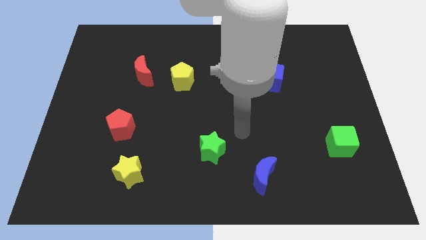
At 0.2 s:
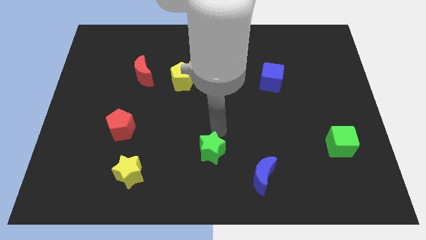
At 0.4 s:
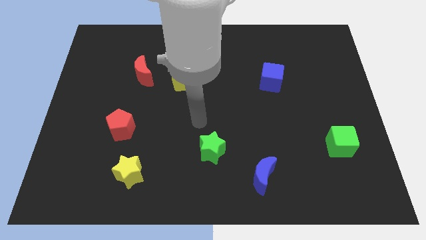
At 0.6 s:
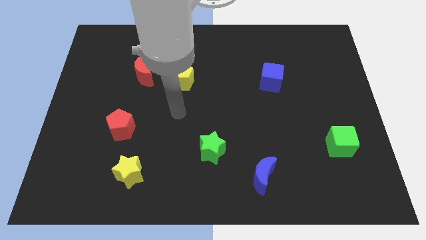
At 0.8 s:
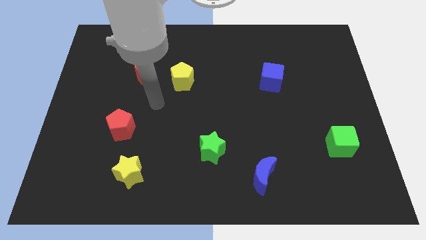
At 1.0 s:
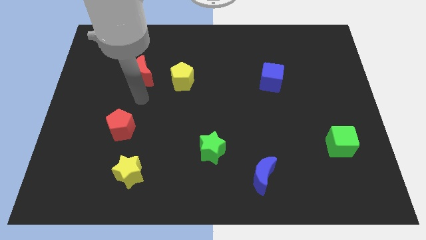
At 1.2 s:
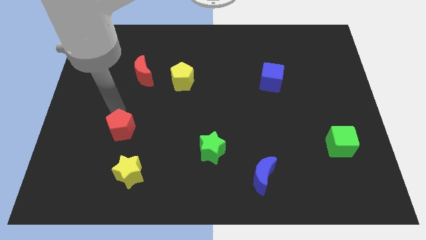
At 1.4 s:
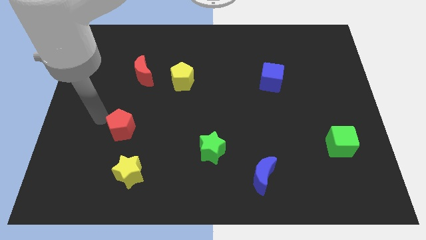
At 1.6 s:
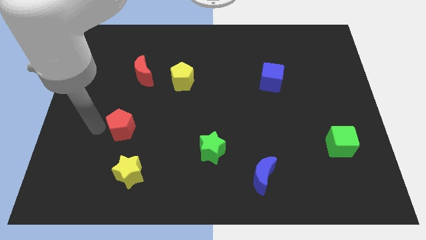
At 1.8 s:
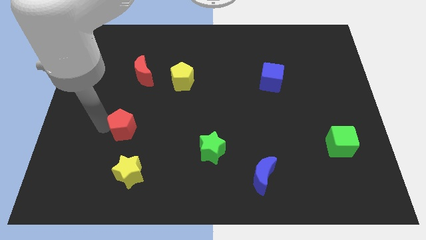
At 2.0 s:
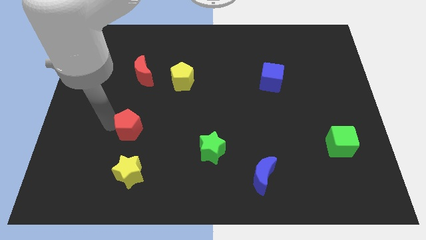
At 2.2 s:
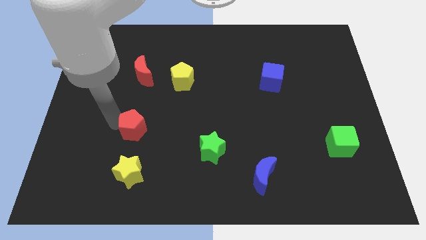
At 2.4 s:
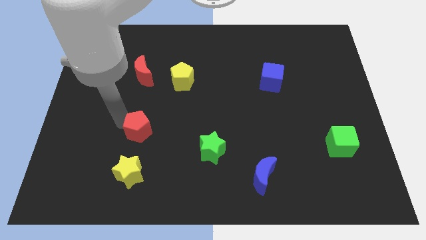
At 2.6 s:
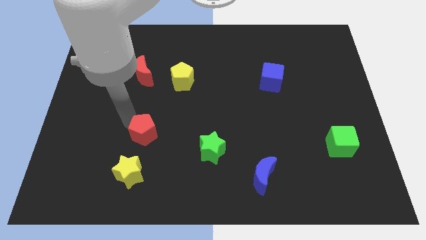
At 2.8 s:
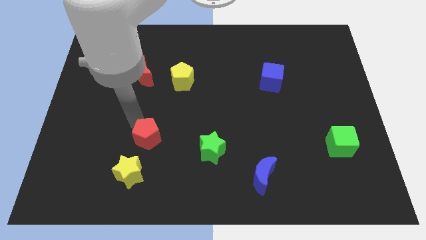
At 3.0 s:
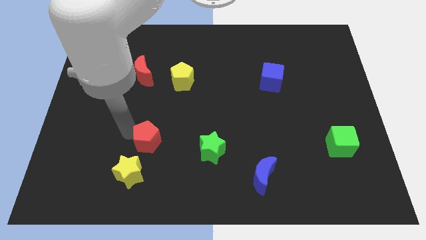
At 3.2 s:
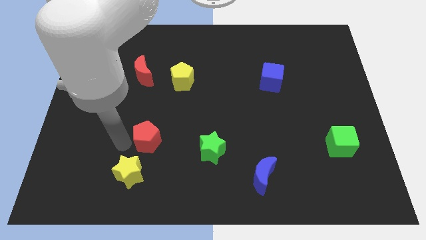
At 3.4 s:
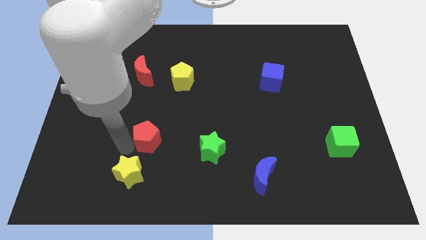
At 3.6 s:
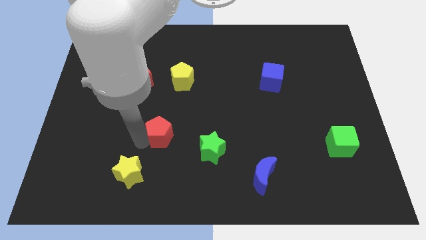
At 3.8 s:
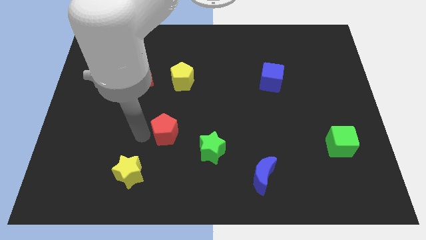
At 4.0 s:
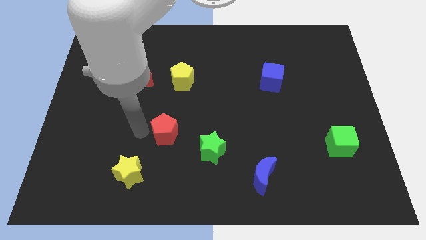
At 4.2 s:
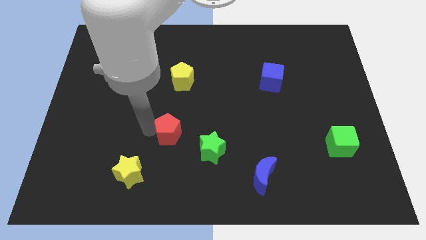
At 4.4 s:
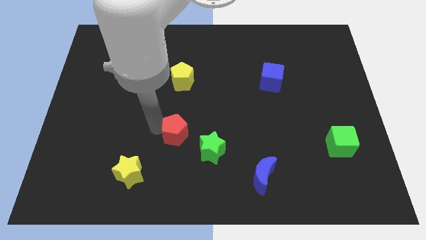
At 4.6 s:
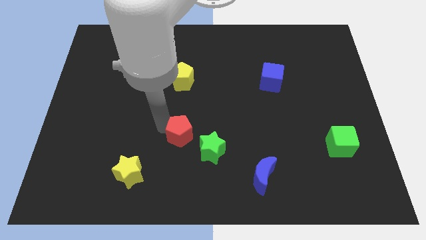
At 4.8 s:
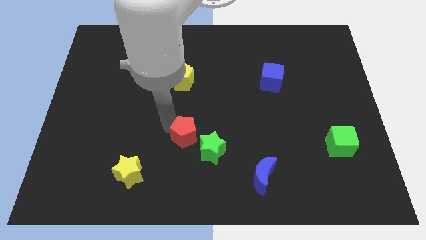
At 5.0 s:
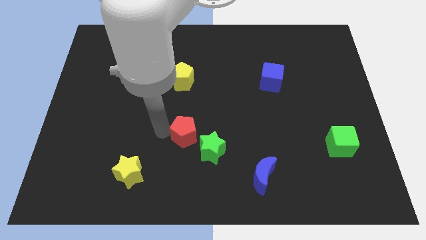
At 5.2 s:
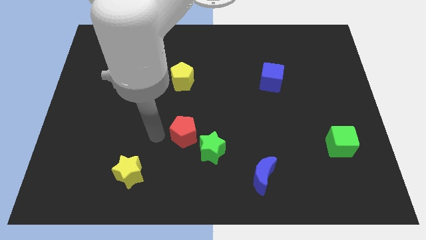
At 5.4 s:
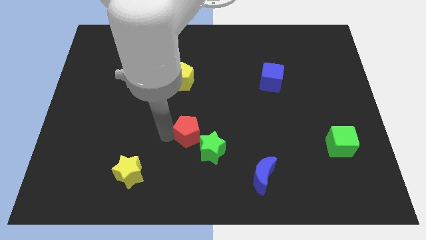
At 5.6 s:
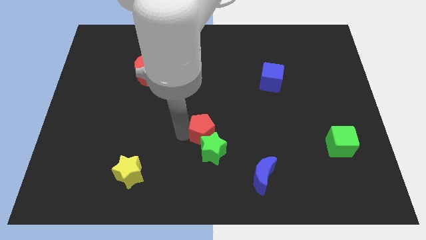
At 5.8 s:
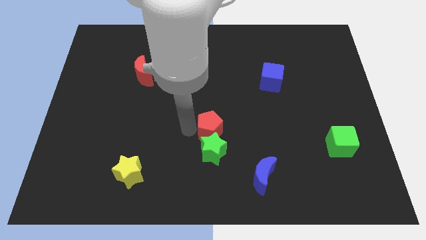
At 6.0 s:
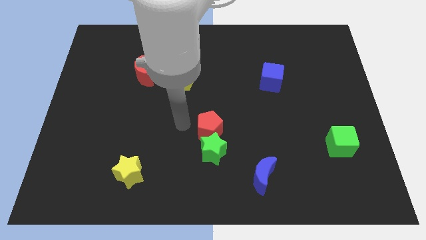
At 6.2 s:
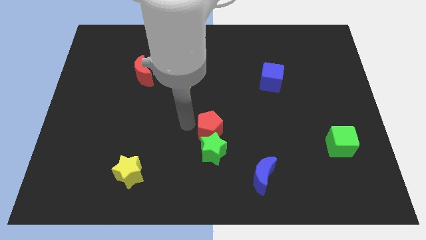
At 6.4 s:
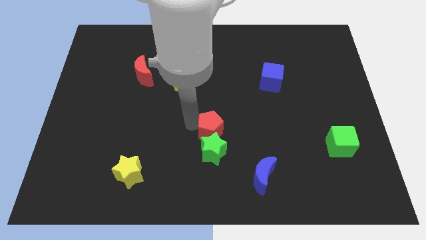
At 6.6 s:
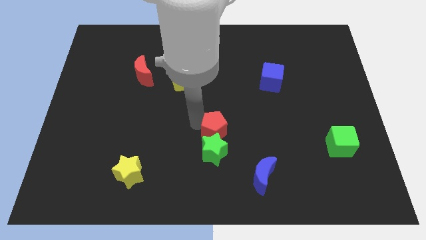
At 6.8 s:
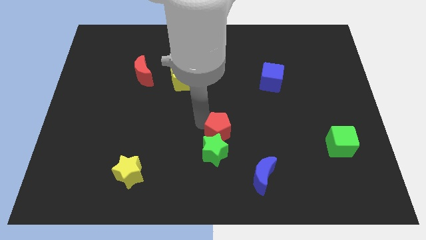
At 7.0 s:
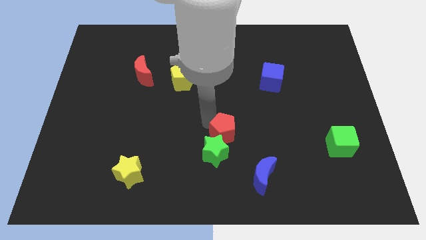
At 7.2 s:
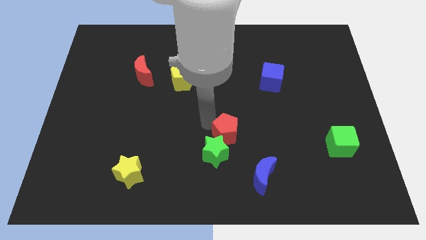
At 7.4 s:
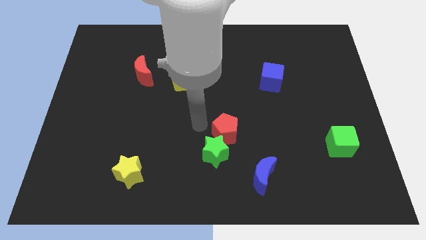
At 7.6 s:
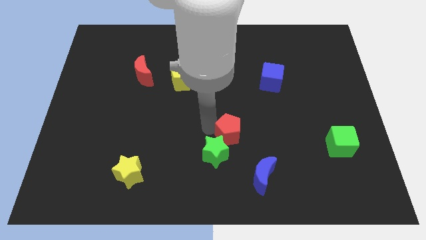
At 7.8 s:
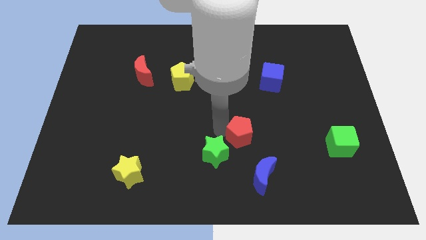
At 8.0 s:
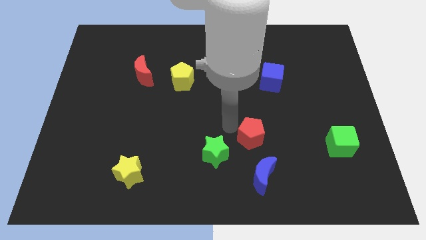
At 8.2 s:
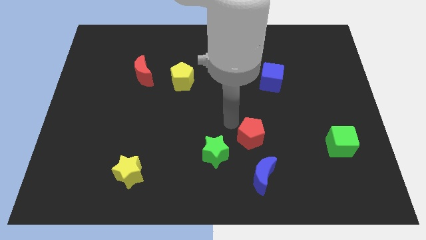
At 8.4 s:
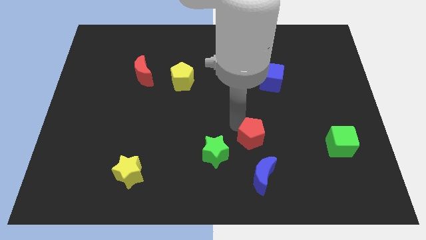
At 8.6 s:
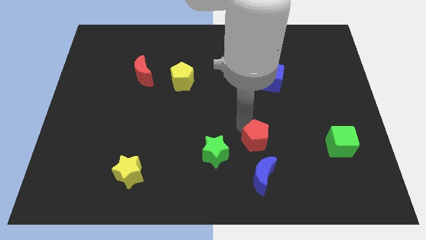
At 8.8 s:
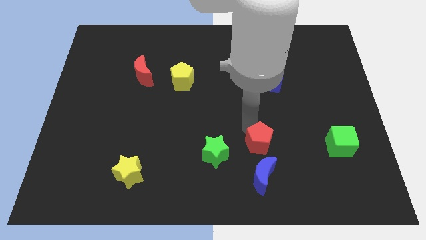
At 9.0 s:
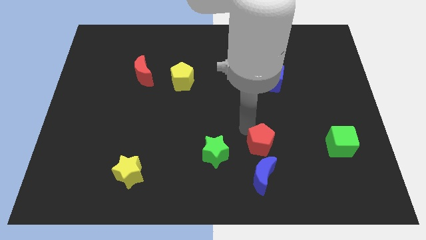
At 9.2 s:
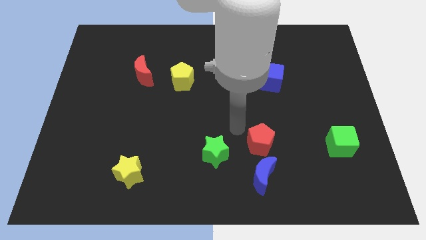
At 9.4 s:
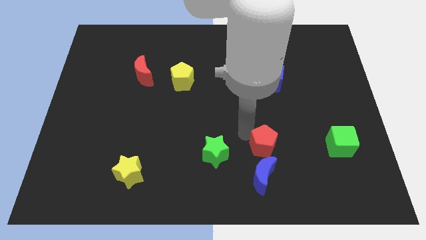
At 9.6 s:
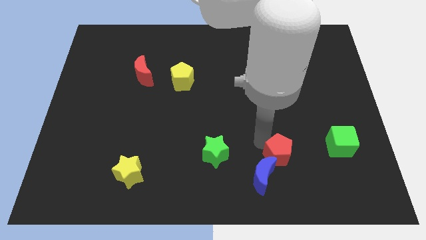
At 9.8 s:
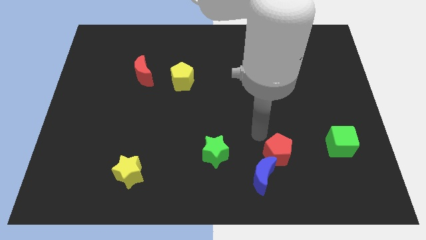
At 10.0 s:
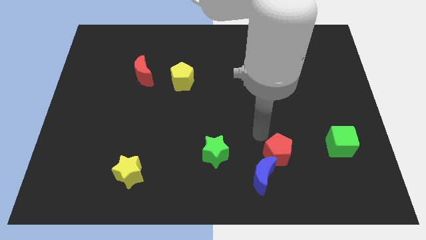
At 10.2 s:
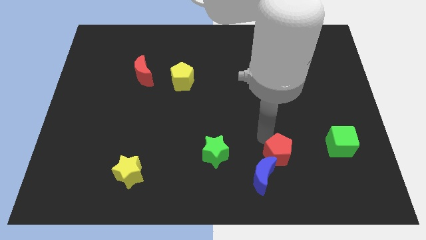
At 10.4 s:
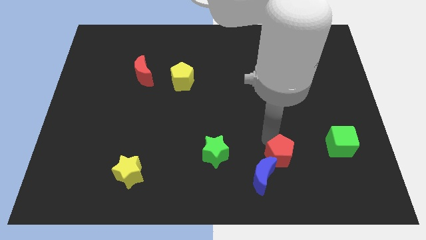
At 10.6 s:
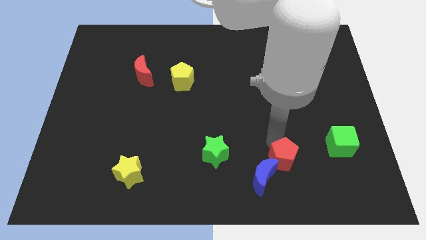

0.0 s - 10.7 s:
move the red pentagon to the right of the blue moon
